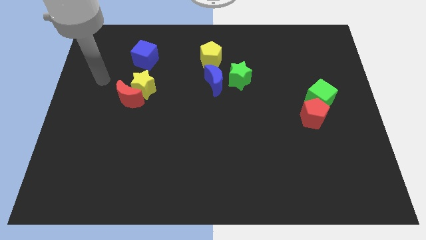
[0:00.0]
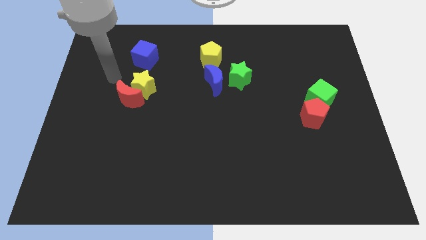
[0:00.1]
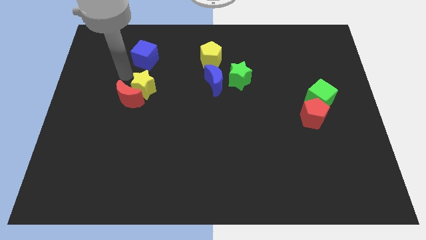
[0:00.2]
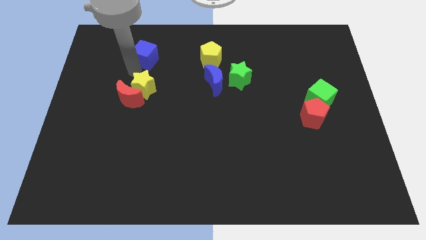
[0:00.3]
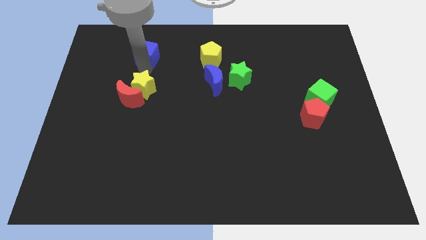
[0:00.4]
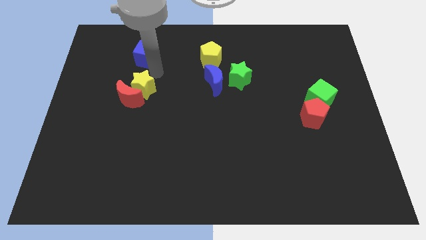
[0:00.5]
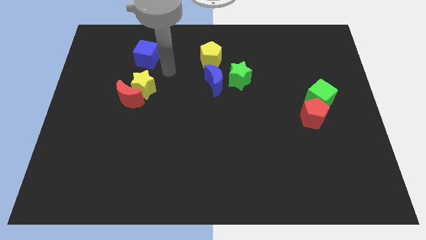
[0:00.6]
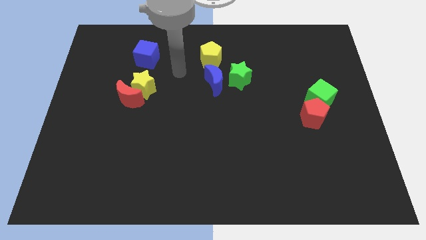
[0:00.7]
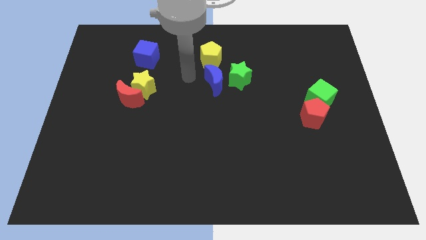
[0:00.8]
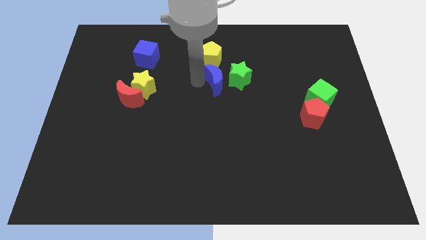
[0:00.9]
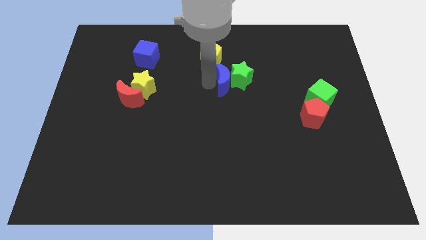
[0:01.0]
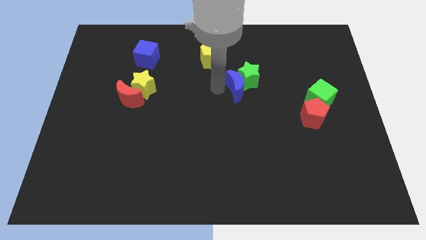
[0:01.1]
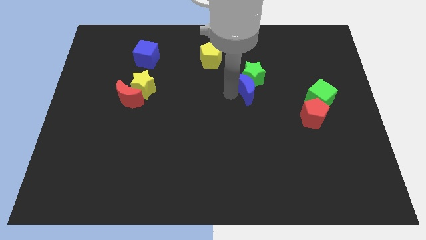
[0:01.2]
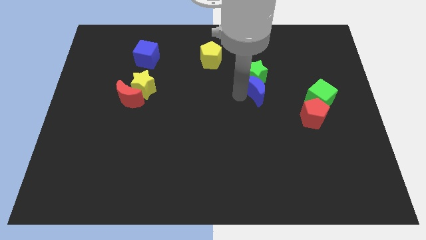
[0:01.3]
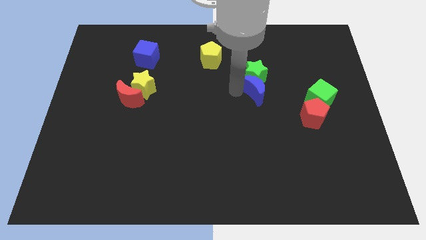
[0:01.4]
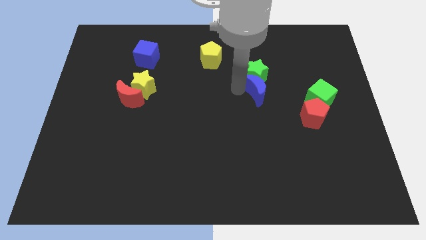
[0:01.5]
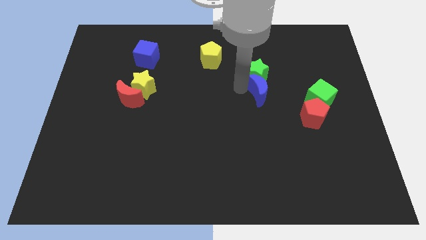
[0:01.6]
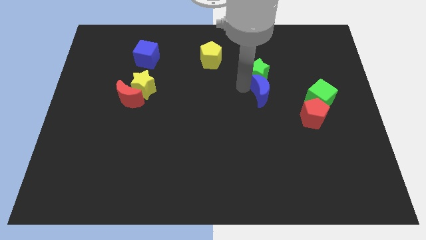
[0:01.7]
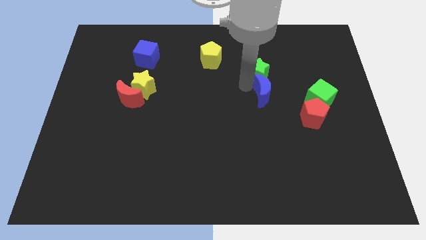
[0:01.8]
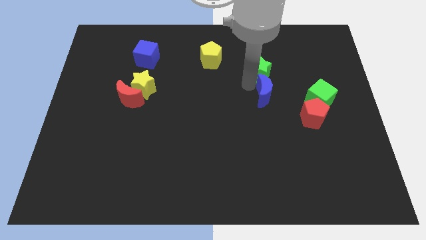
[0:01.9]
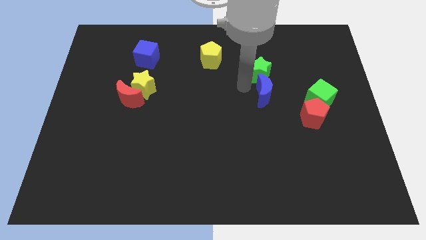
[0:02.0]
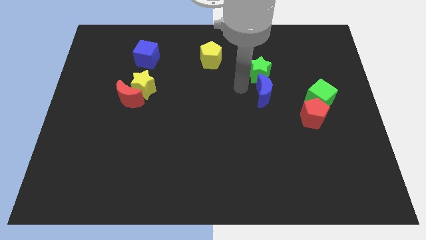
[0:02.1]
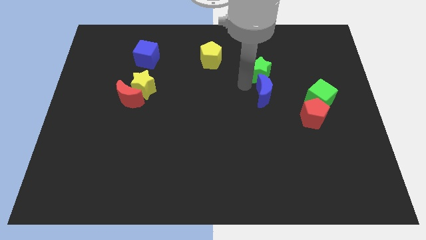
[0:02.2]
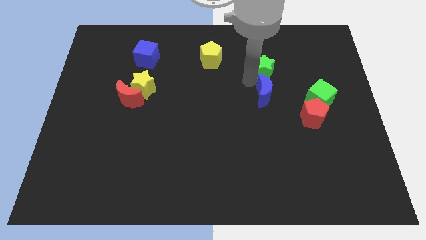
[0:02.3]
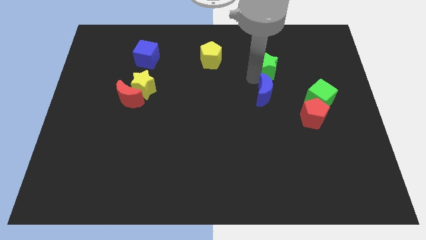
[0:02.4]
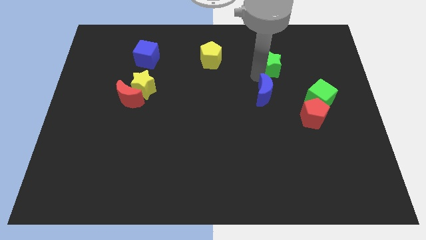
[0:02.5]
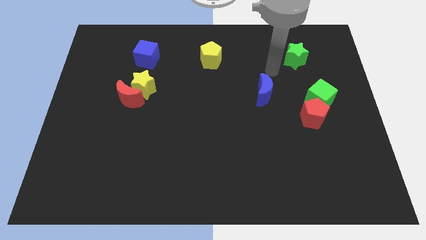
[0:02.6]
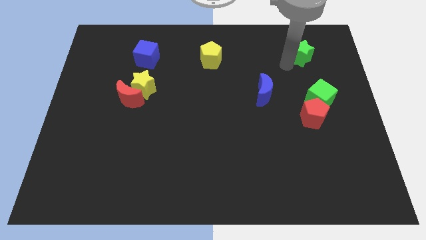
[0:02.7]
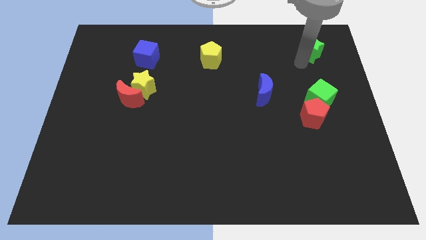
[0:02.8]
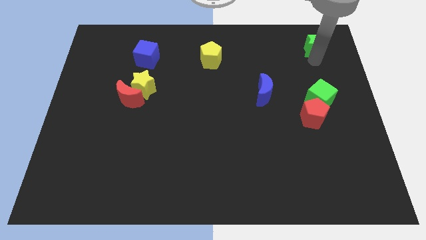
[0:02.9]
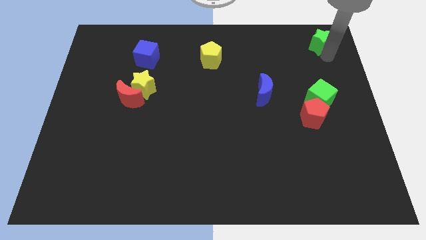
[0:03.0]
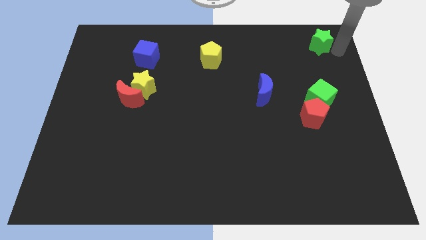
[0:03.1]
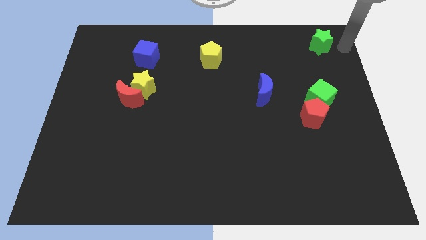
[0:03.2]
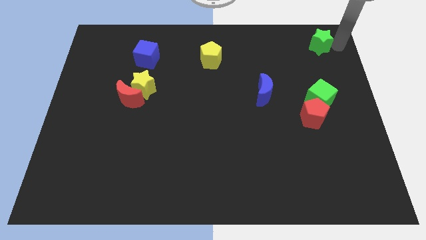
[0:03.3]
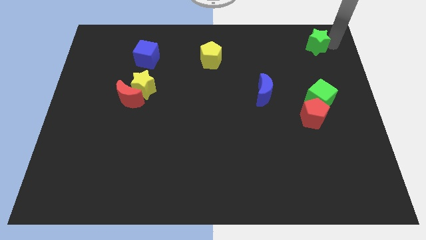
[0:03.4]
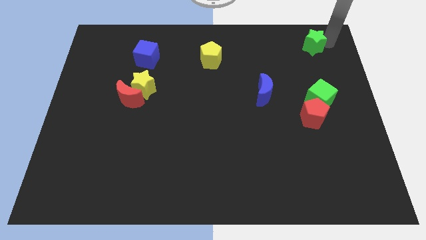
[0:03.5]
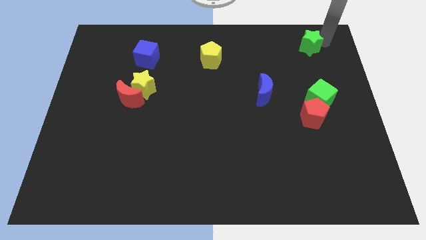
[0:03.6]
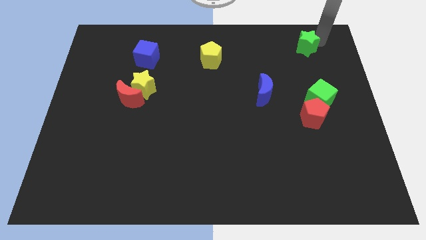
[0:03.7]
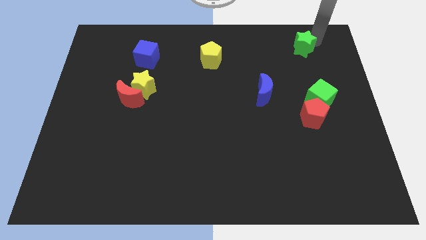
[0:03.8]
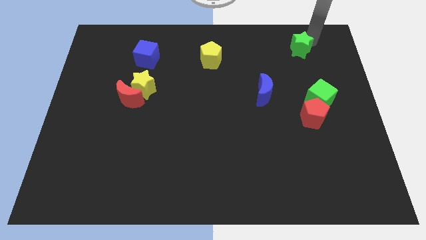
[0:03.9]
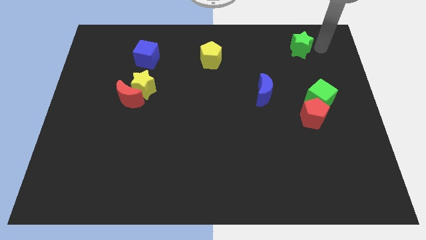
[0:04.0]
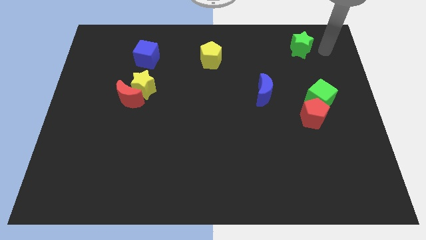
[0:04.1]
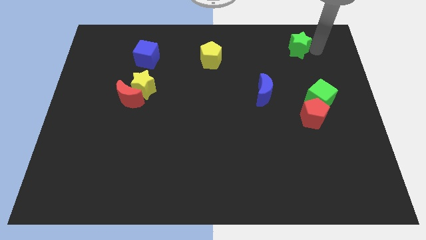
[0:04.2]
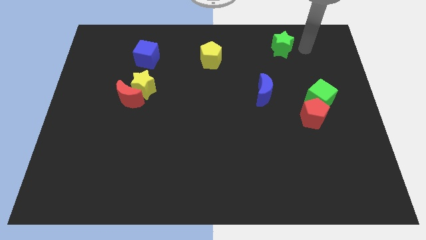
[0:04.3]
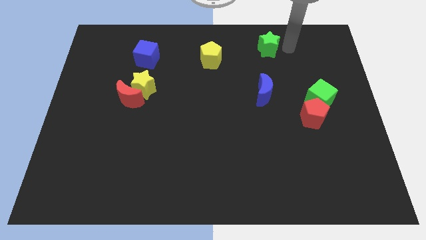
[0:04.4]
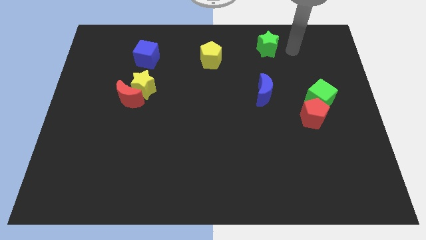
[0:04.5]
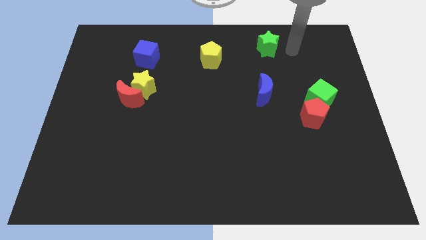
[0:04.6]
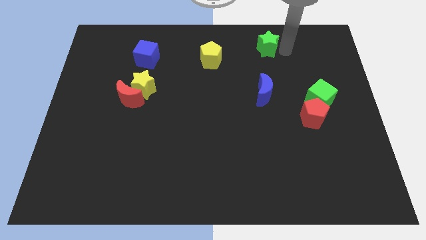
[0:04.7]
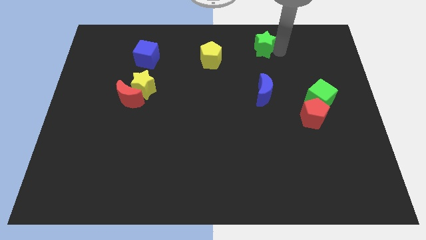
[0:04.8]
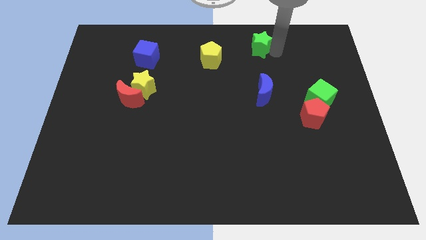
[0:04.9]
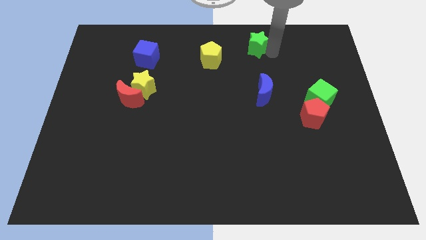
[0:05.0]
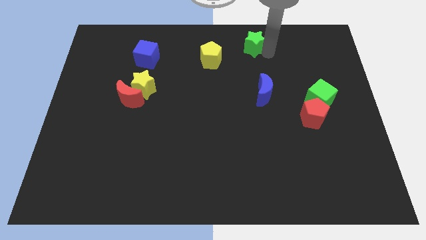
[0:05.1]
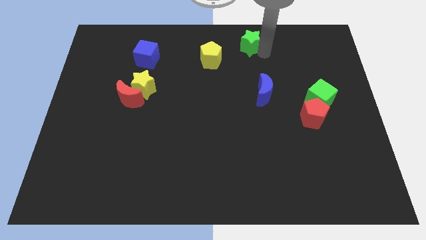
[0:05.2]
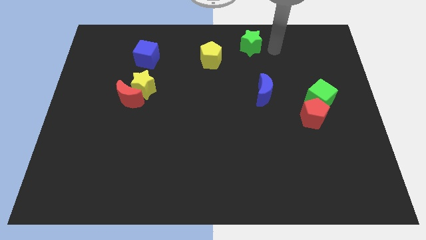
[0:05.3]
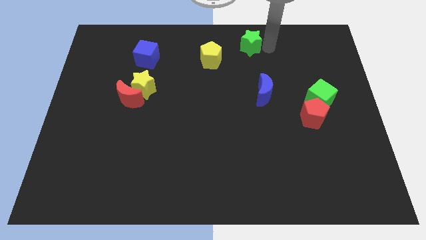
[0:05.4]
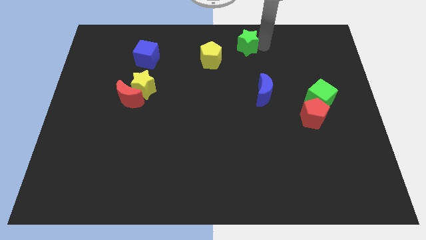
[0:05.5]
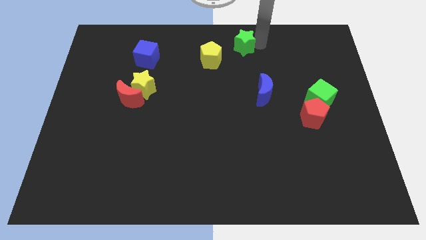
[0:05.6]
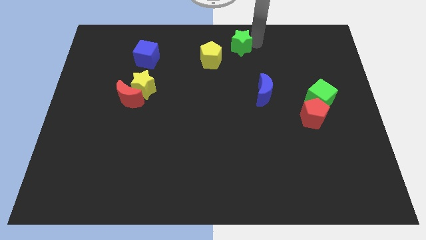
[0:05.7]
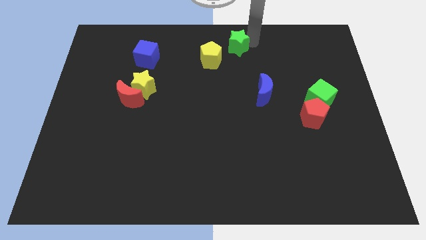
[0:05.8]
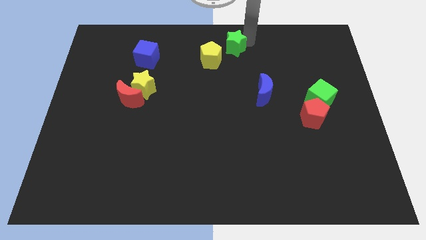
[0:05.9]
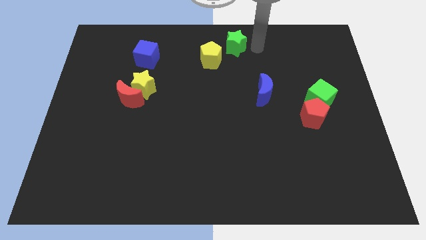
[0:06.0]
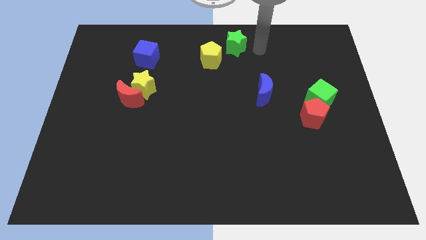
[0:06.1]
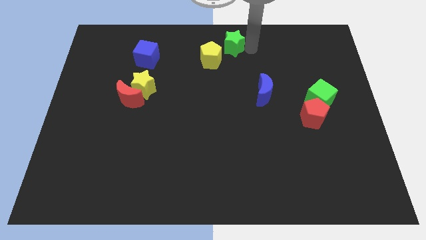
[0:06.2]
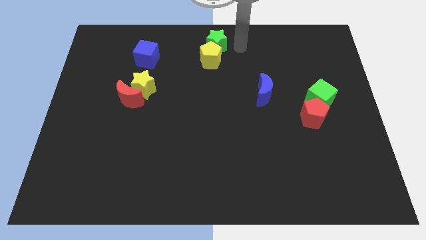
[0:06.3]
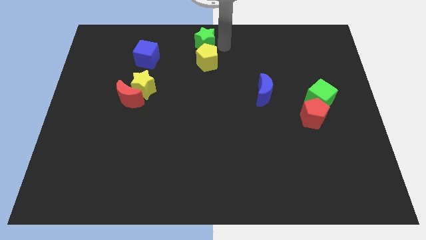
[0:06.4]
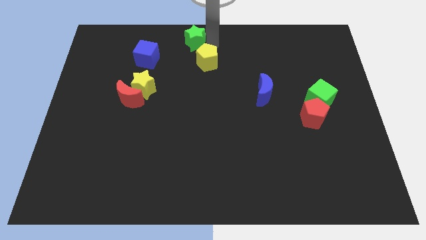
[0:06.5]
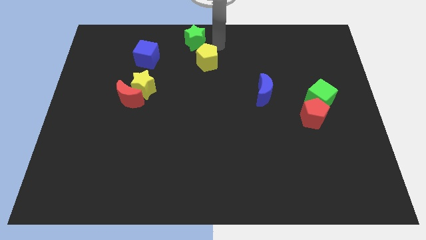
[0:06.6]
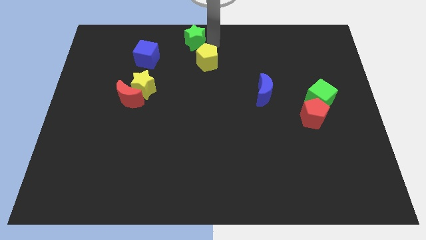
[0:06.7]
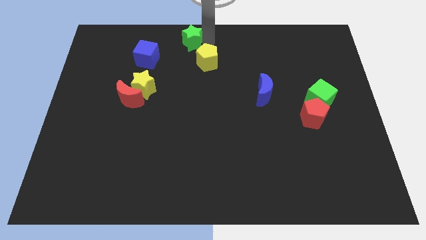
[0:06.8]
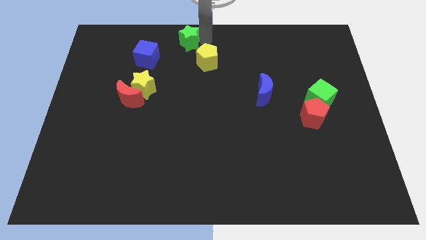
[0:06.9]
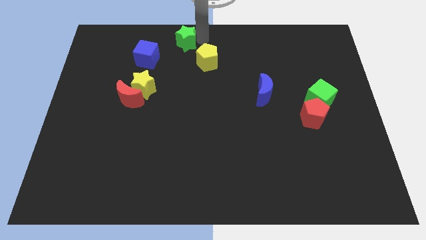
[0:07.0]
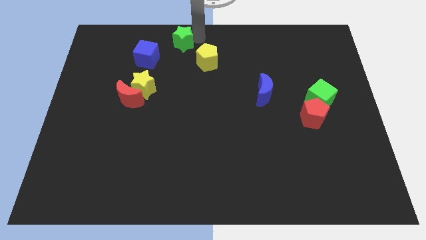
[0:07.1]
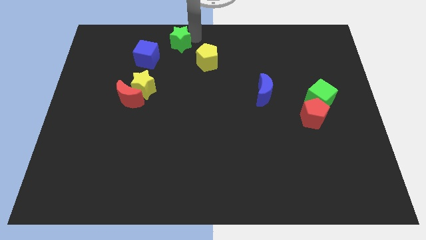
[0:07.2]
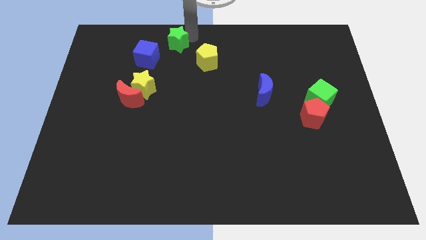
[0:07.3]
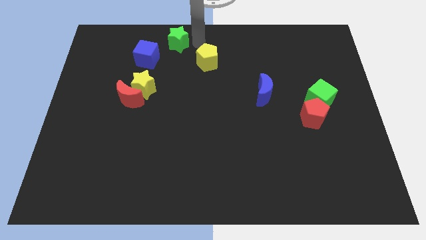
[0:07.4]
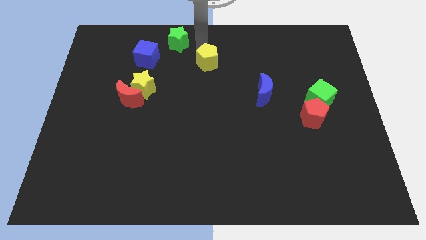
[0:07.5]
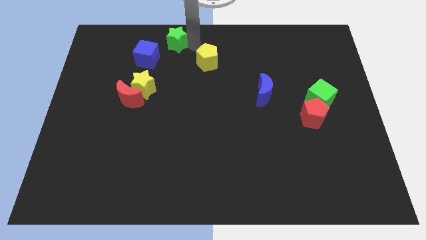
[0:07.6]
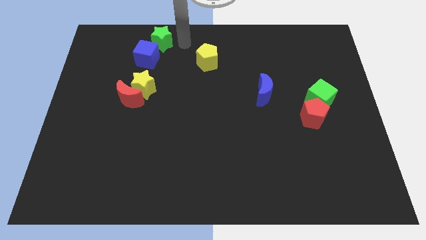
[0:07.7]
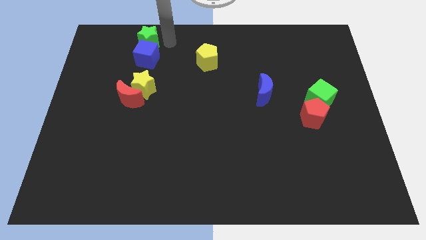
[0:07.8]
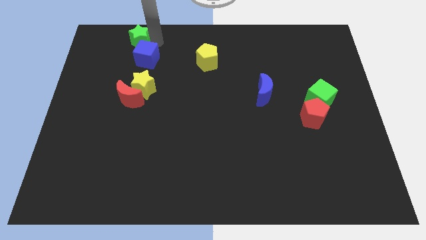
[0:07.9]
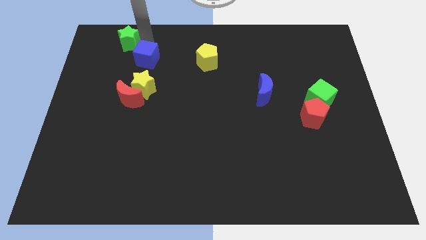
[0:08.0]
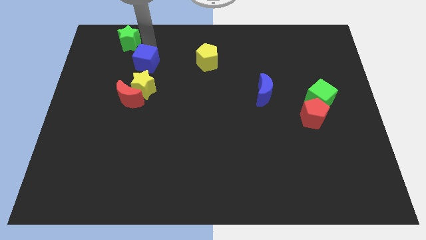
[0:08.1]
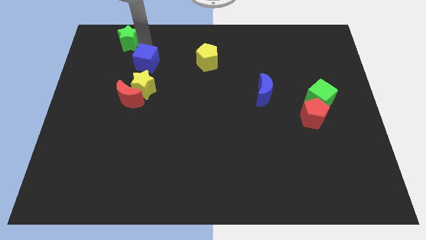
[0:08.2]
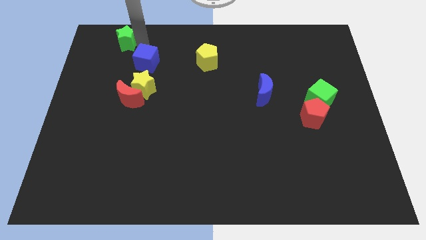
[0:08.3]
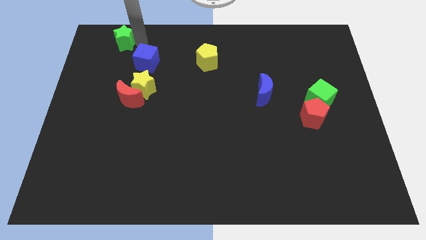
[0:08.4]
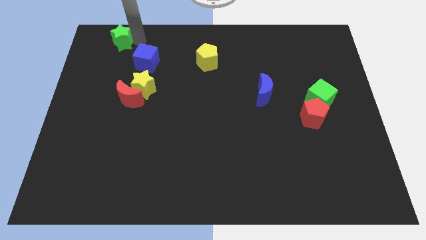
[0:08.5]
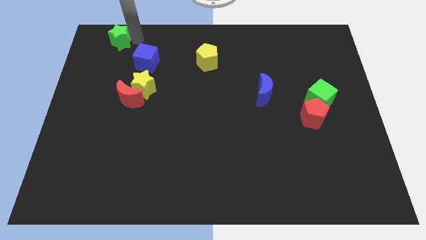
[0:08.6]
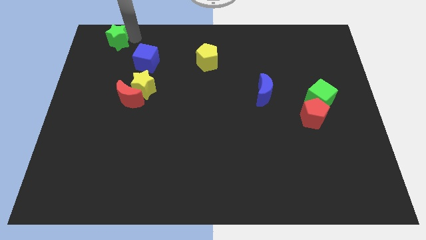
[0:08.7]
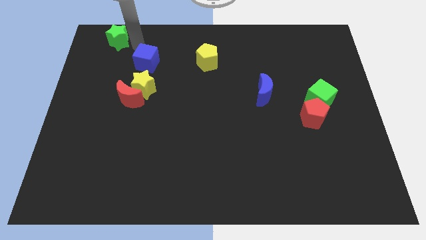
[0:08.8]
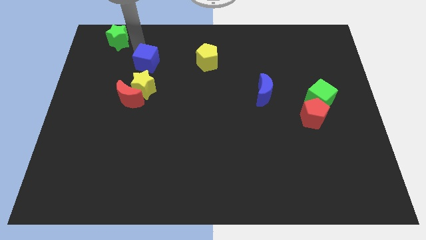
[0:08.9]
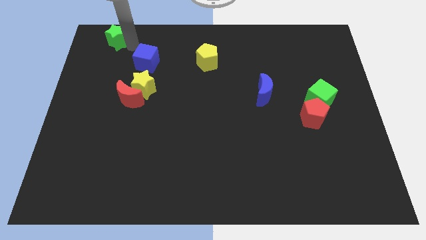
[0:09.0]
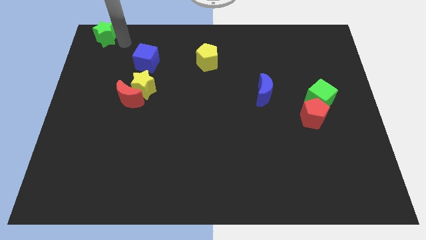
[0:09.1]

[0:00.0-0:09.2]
move the green star to the upper left corner
